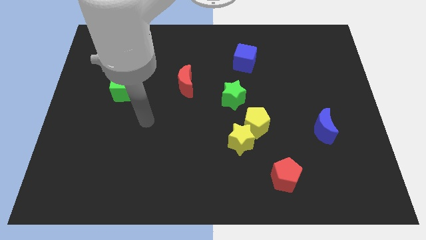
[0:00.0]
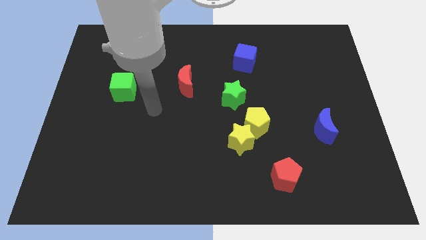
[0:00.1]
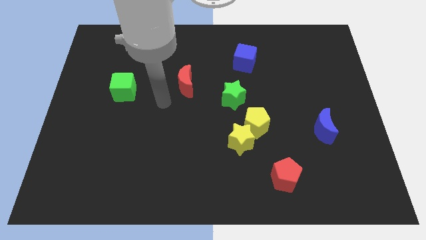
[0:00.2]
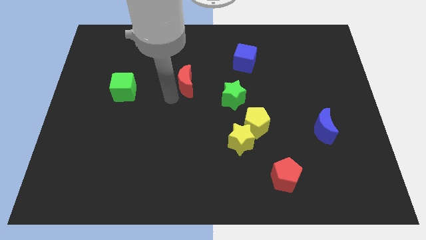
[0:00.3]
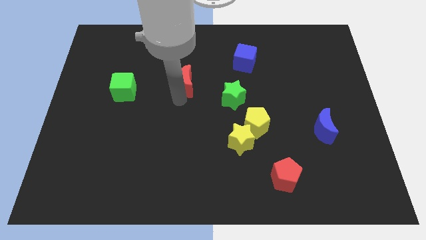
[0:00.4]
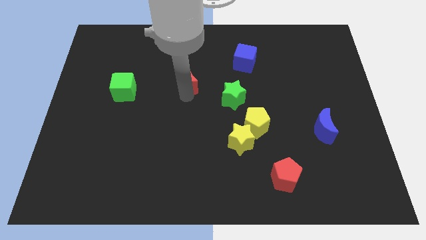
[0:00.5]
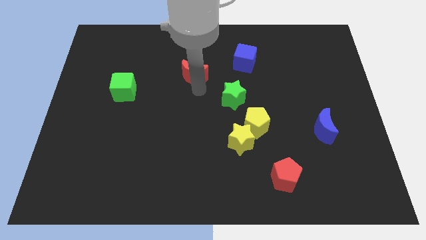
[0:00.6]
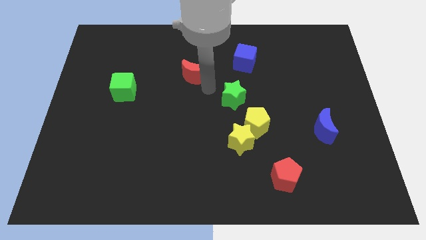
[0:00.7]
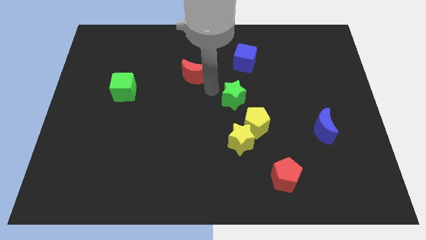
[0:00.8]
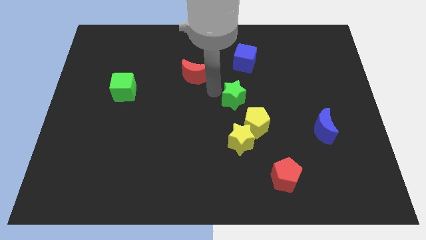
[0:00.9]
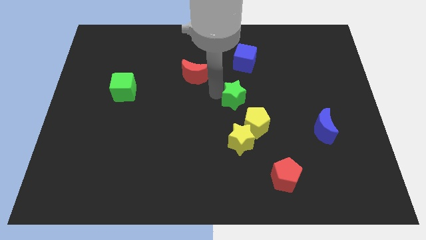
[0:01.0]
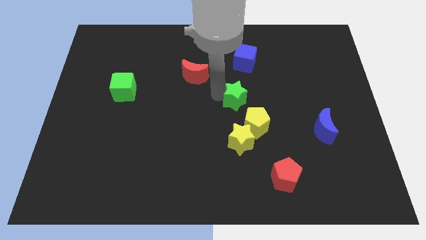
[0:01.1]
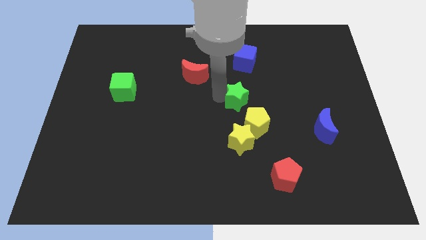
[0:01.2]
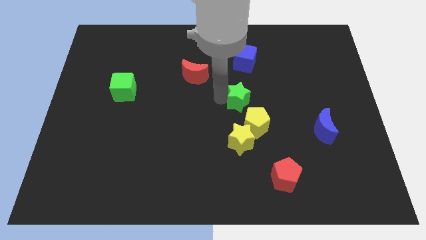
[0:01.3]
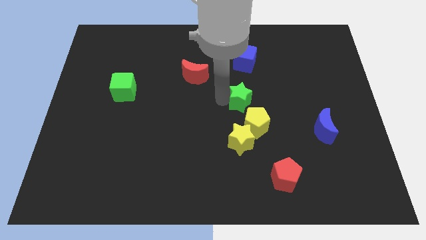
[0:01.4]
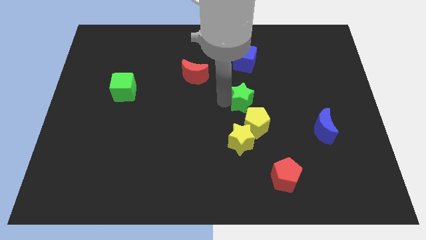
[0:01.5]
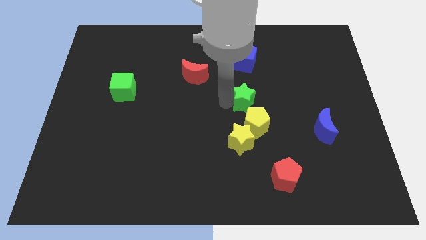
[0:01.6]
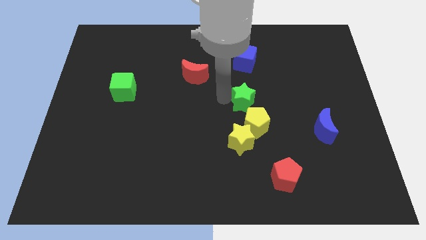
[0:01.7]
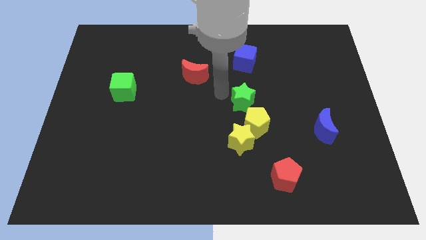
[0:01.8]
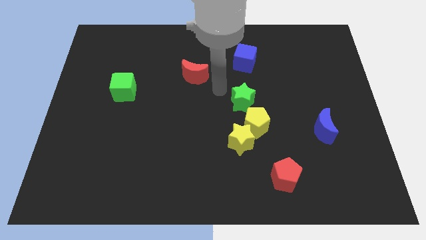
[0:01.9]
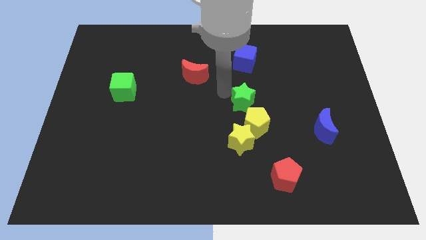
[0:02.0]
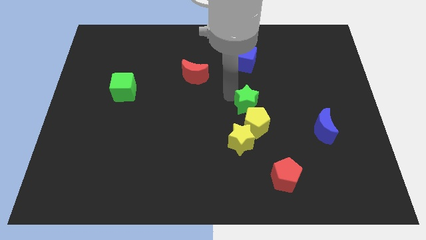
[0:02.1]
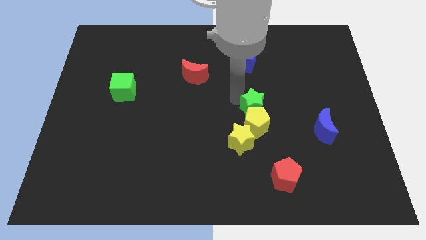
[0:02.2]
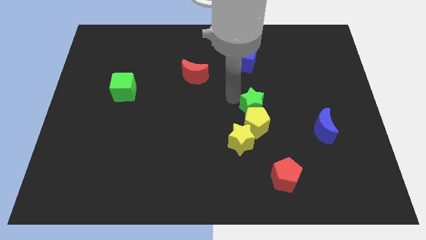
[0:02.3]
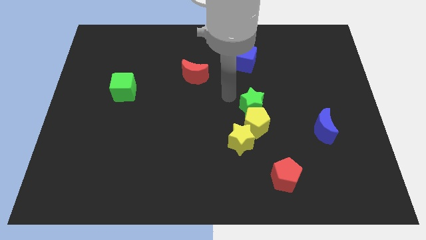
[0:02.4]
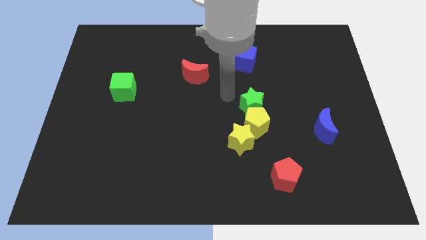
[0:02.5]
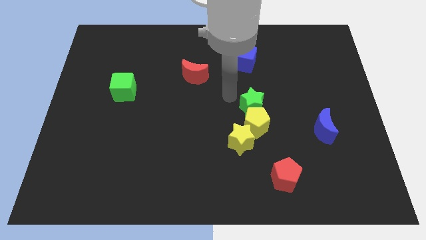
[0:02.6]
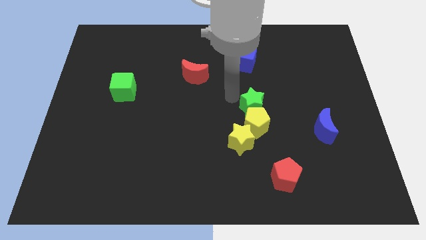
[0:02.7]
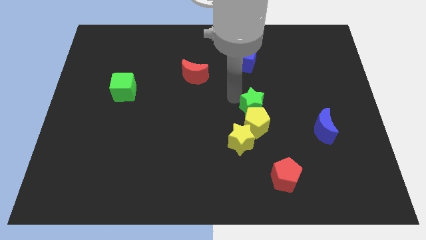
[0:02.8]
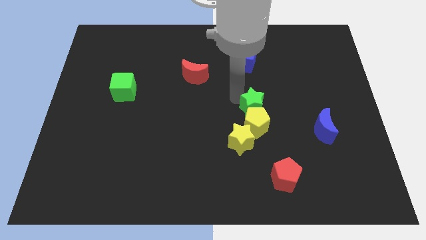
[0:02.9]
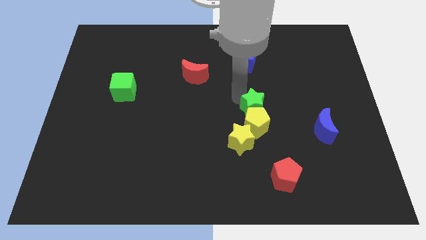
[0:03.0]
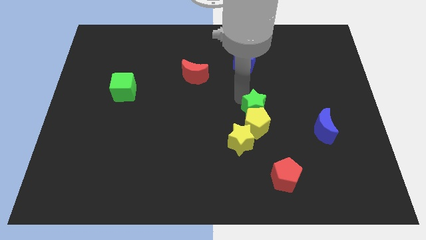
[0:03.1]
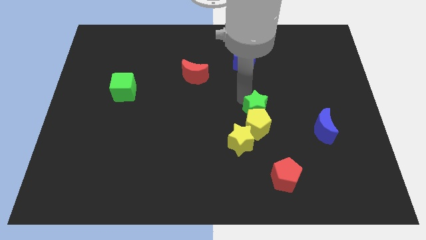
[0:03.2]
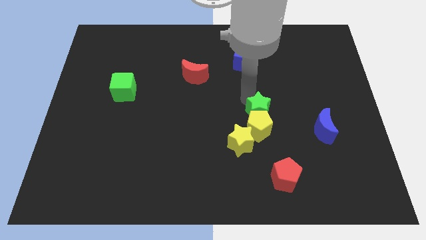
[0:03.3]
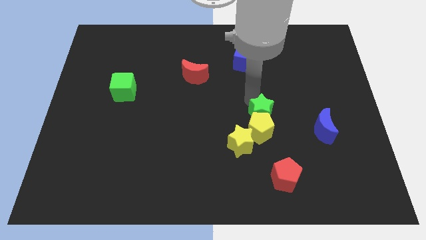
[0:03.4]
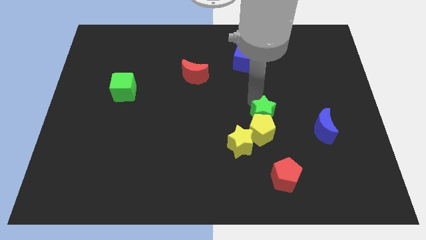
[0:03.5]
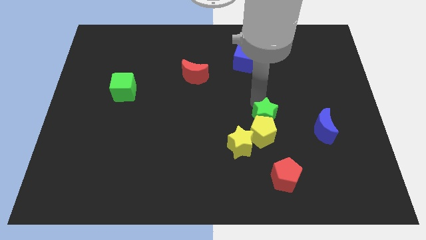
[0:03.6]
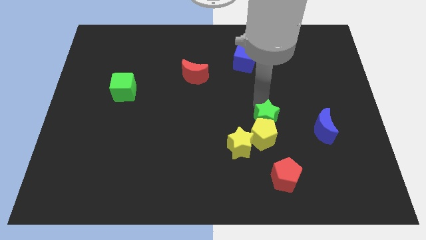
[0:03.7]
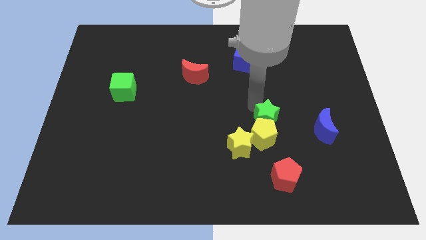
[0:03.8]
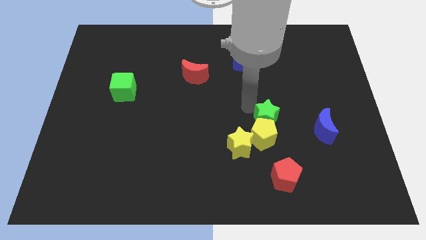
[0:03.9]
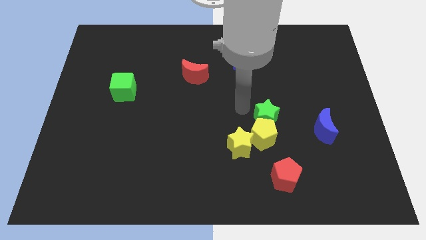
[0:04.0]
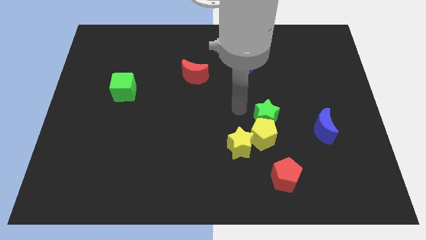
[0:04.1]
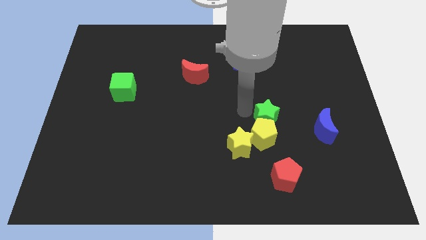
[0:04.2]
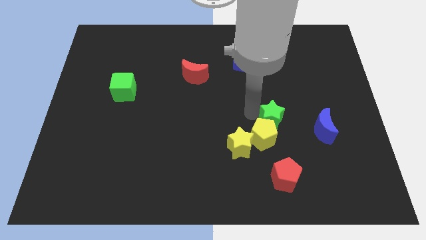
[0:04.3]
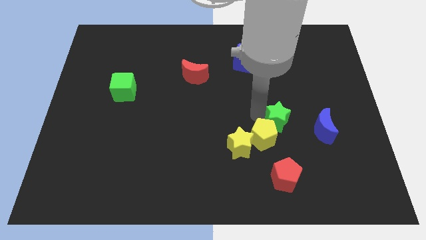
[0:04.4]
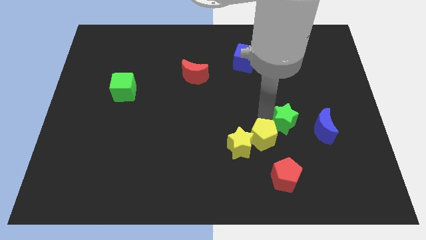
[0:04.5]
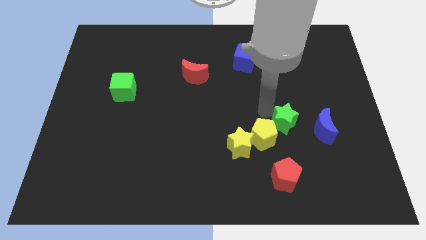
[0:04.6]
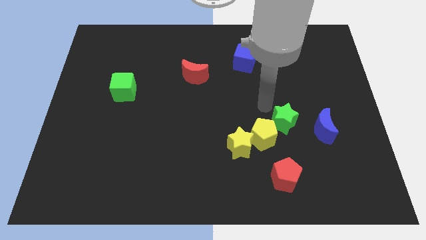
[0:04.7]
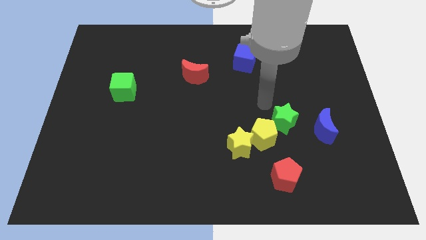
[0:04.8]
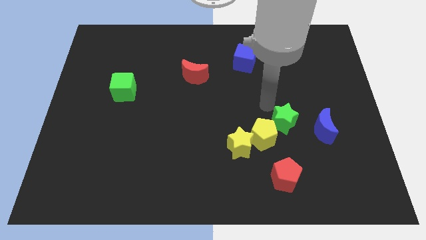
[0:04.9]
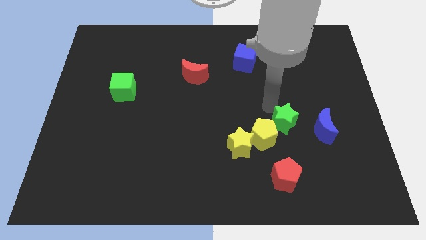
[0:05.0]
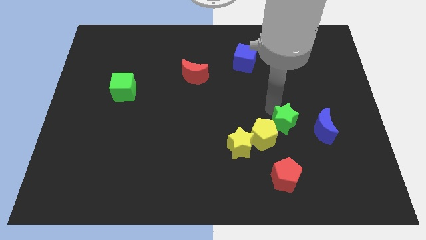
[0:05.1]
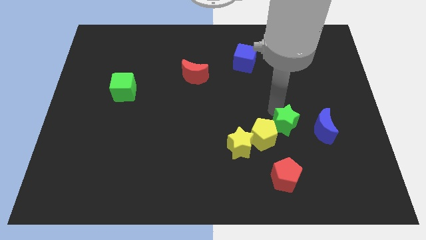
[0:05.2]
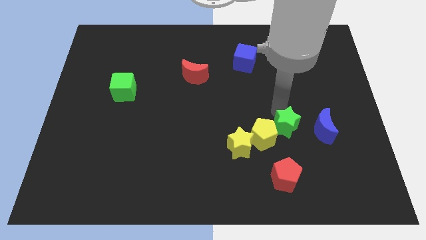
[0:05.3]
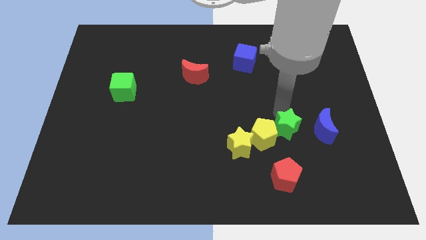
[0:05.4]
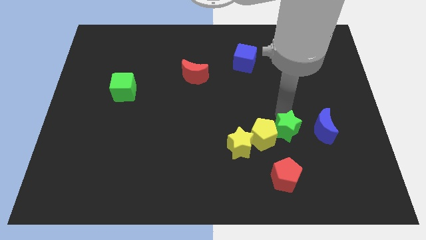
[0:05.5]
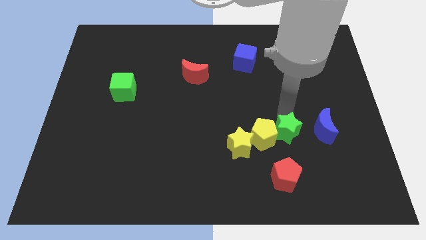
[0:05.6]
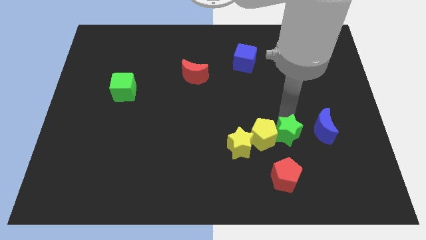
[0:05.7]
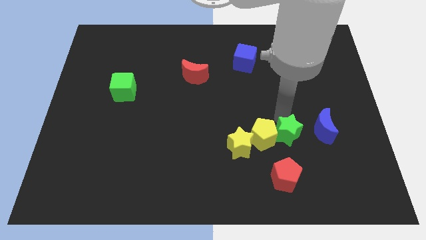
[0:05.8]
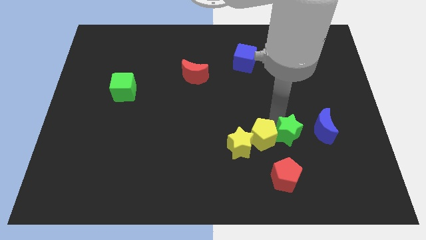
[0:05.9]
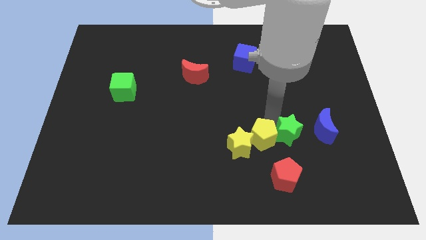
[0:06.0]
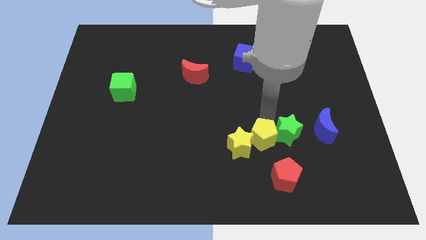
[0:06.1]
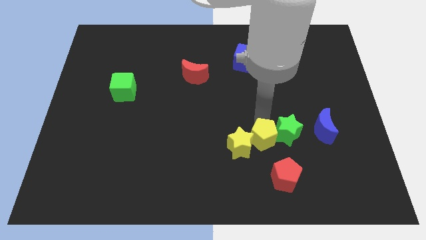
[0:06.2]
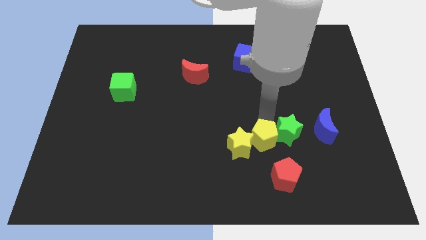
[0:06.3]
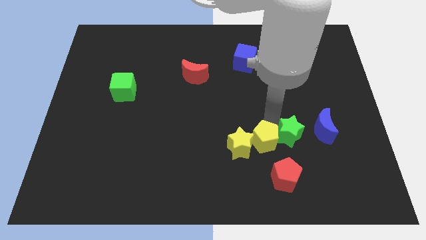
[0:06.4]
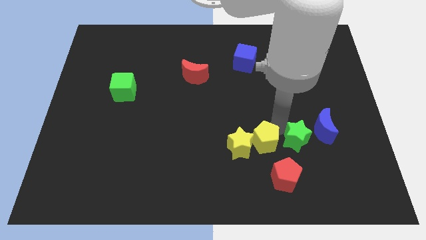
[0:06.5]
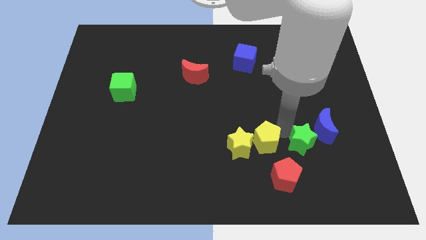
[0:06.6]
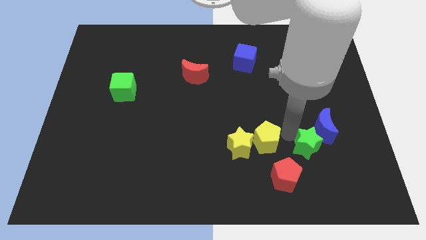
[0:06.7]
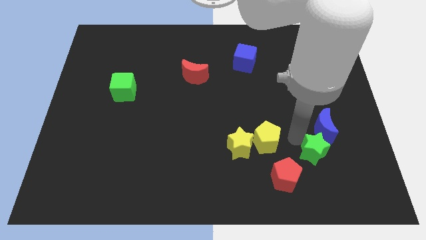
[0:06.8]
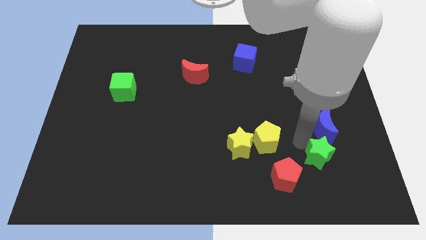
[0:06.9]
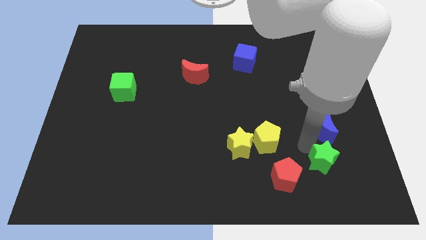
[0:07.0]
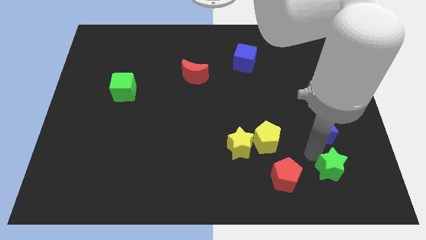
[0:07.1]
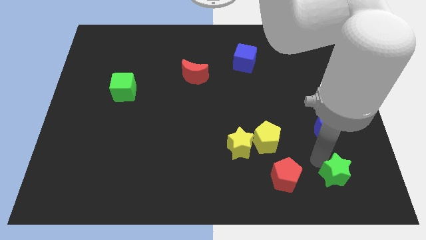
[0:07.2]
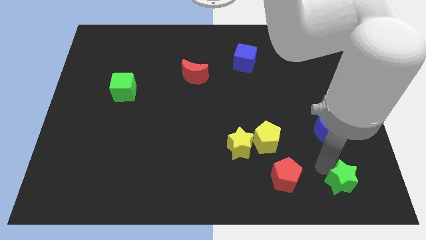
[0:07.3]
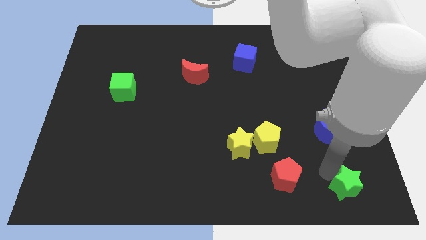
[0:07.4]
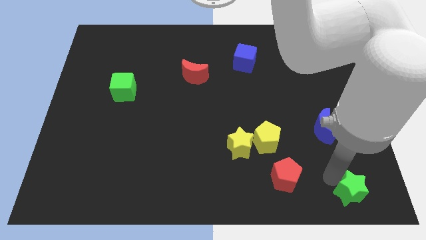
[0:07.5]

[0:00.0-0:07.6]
put the green star to the bottom right of the board
